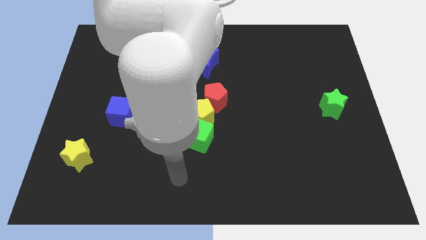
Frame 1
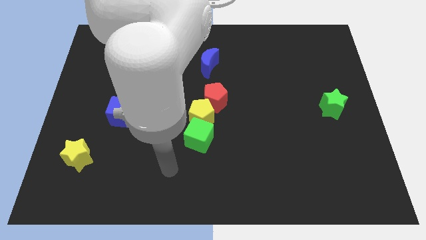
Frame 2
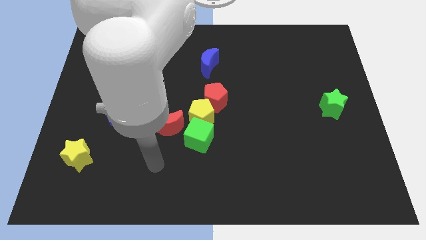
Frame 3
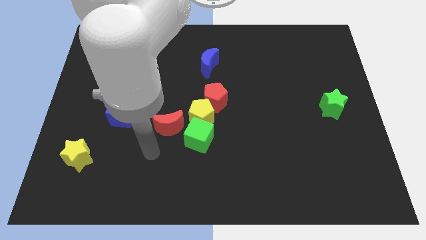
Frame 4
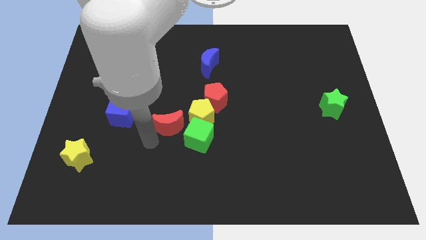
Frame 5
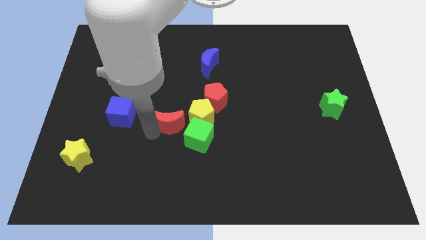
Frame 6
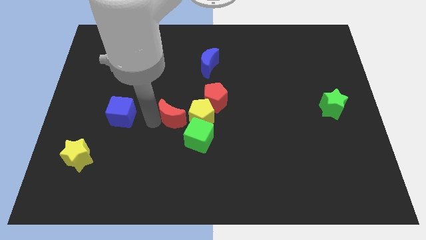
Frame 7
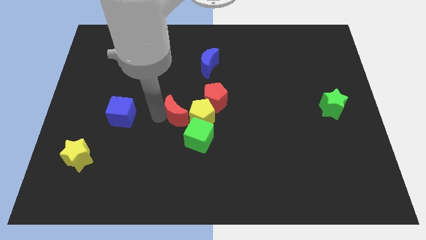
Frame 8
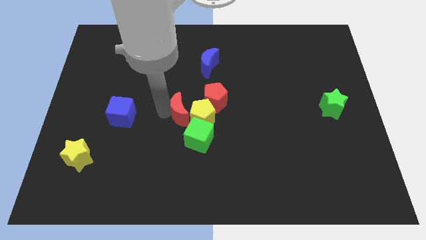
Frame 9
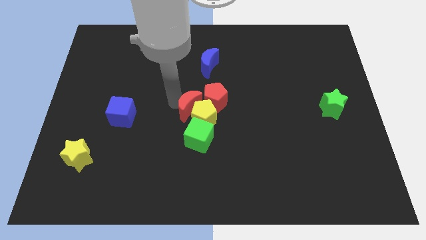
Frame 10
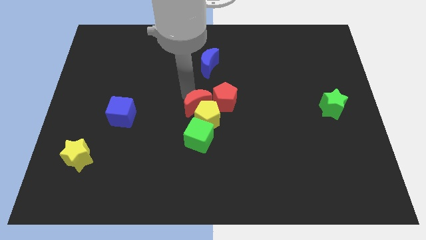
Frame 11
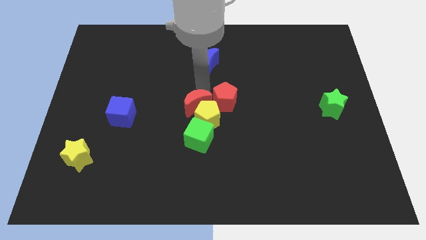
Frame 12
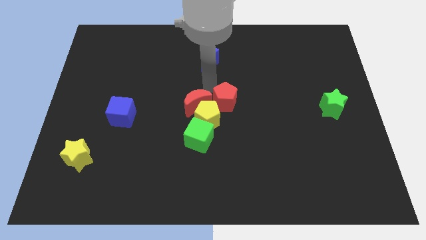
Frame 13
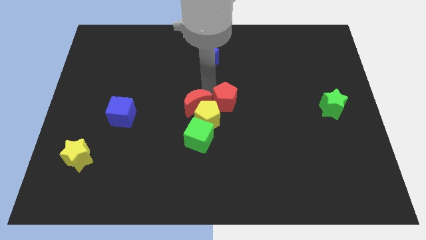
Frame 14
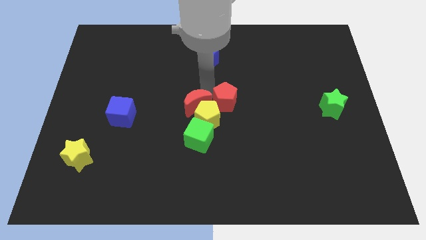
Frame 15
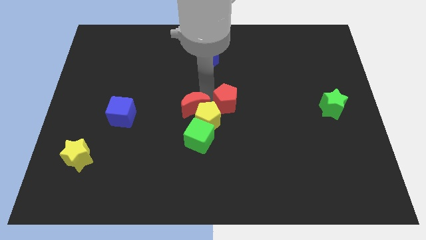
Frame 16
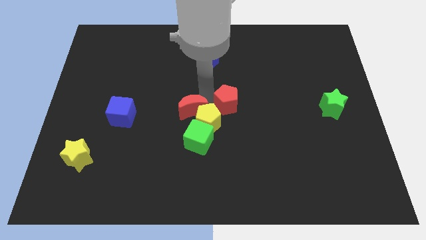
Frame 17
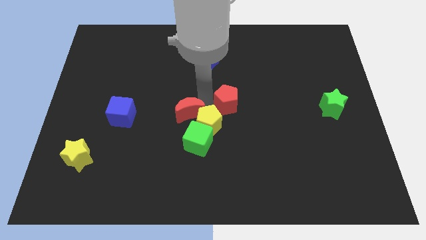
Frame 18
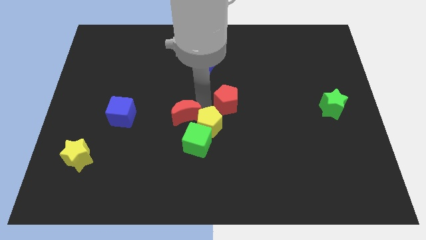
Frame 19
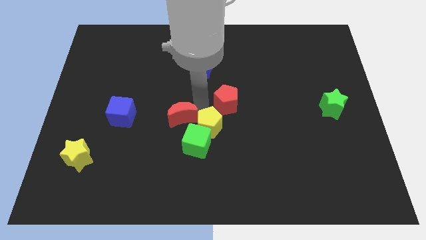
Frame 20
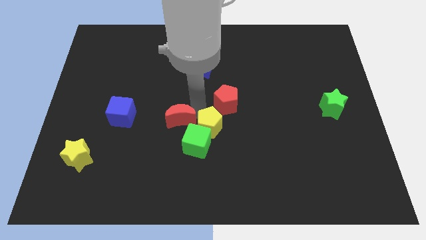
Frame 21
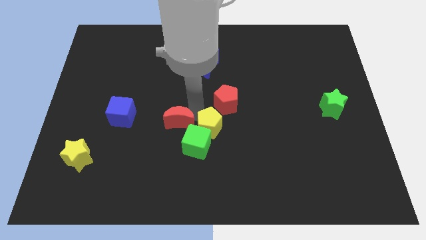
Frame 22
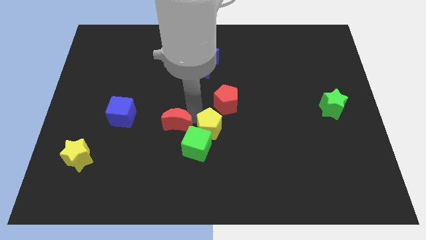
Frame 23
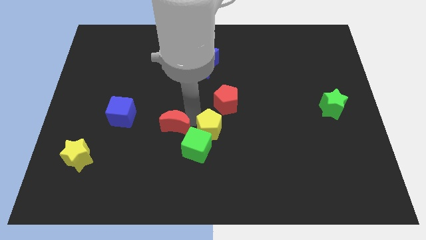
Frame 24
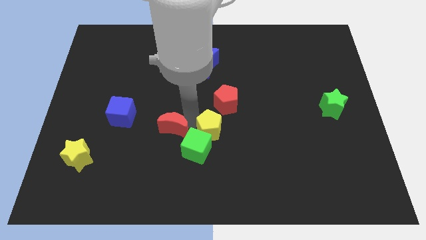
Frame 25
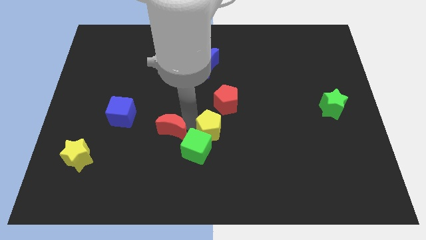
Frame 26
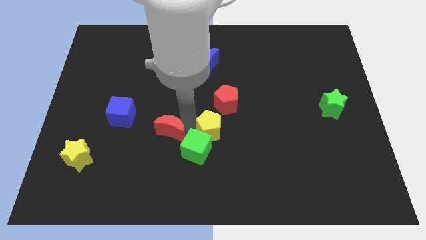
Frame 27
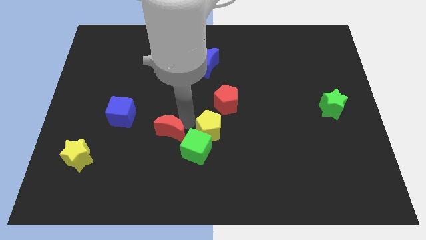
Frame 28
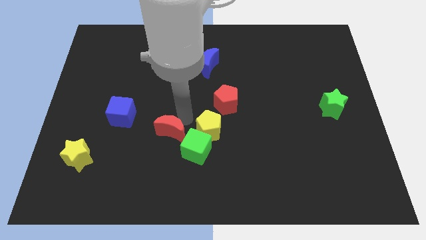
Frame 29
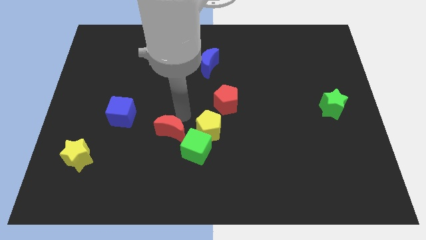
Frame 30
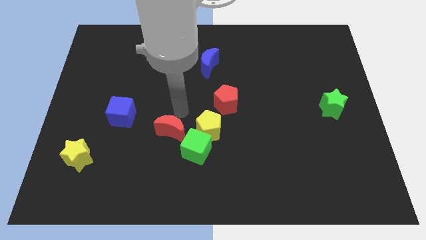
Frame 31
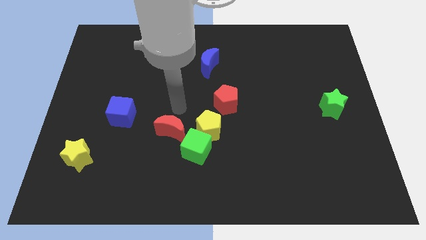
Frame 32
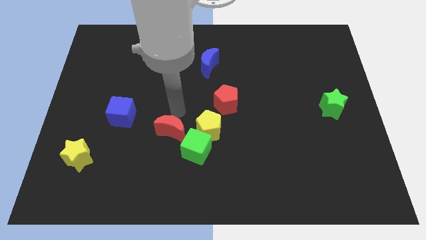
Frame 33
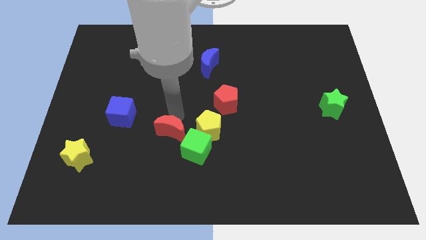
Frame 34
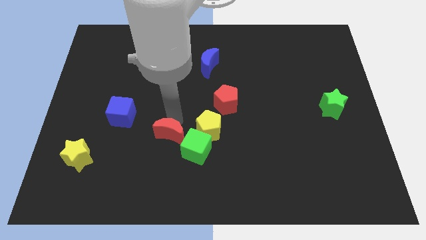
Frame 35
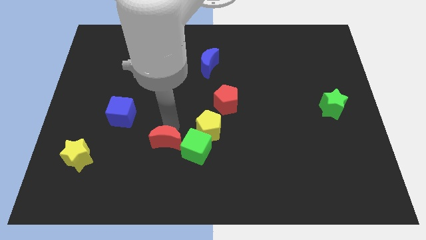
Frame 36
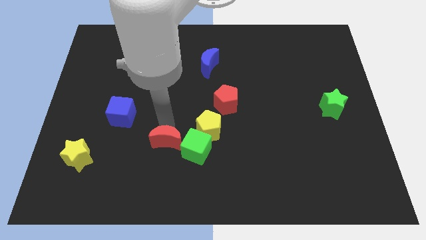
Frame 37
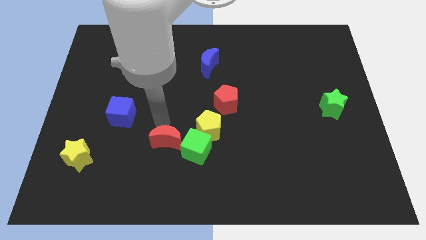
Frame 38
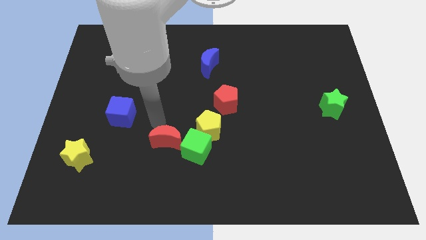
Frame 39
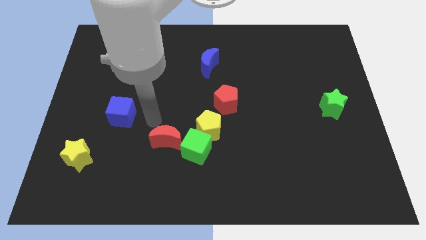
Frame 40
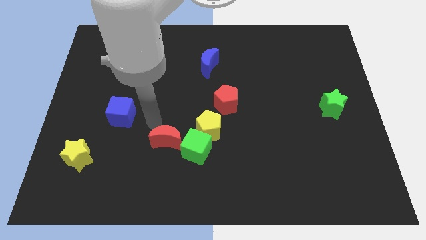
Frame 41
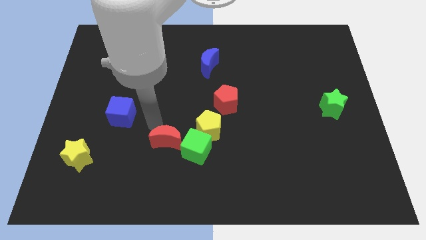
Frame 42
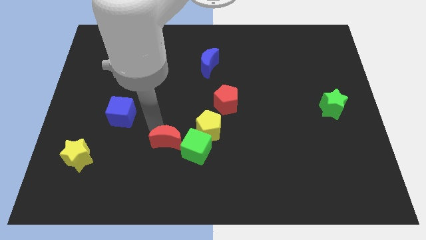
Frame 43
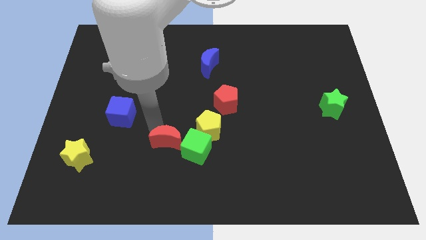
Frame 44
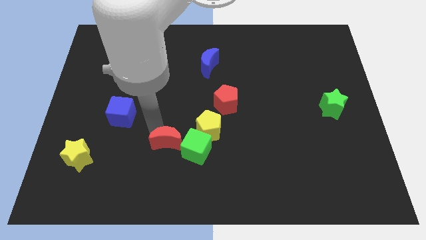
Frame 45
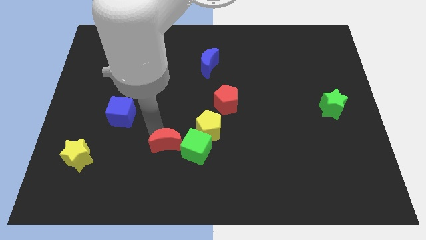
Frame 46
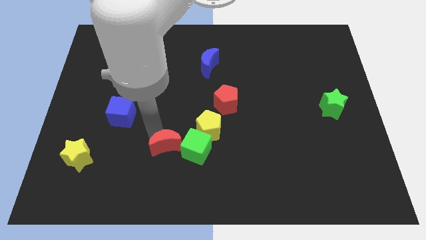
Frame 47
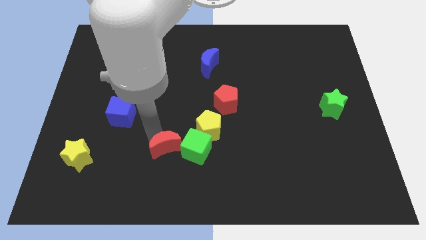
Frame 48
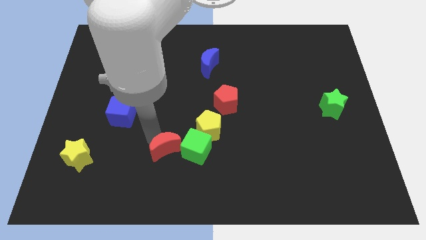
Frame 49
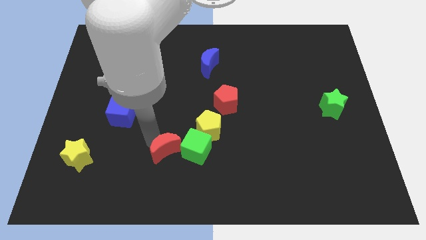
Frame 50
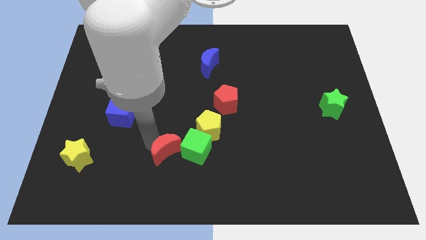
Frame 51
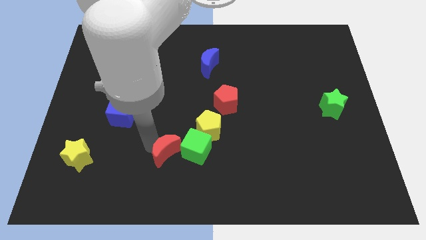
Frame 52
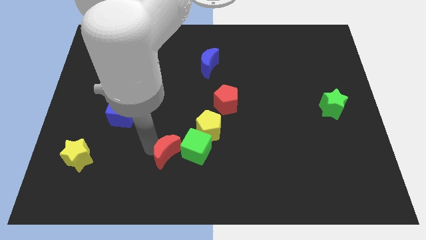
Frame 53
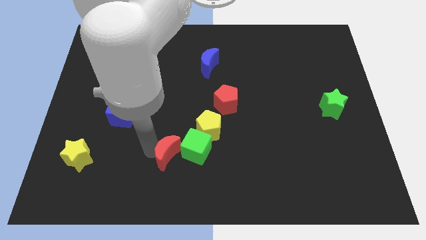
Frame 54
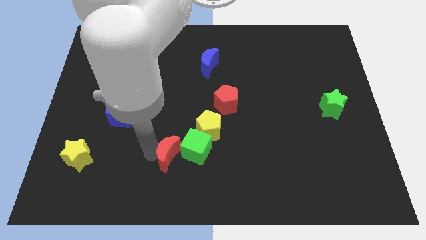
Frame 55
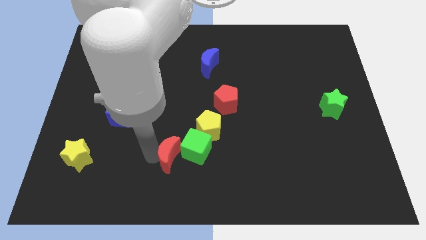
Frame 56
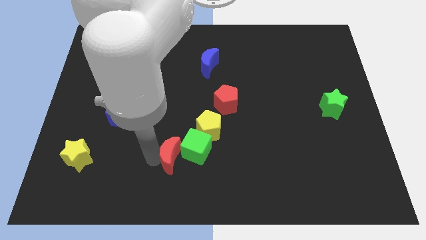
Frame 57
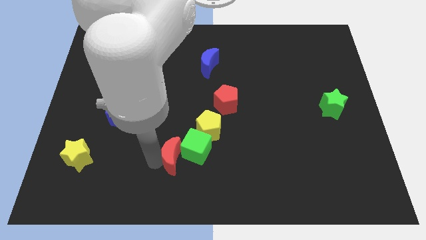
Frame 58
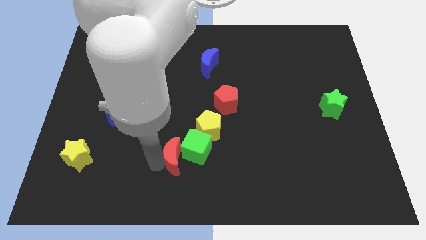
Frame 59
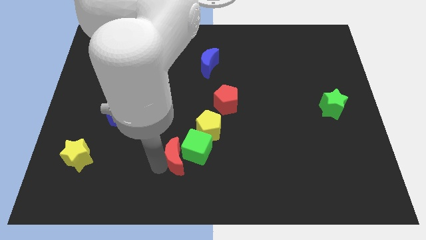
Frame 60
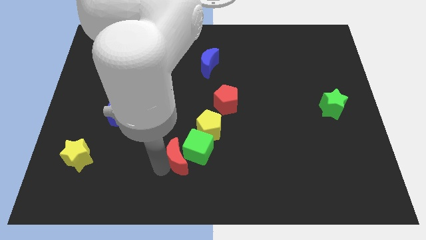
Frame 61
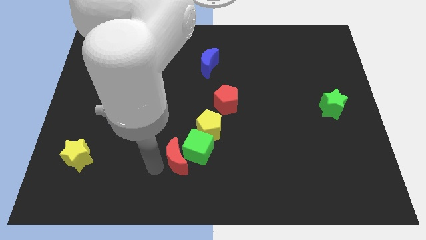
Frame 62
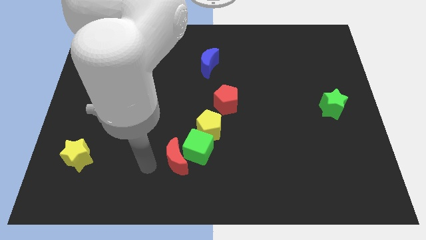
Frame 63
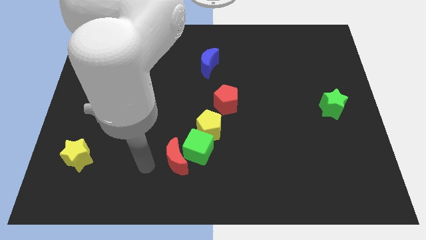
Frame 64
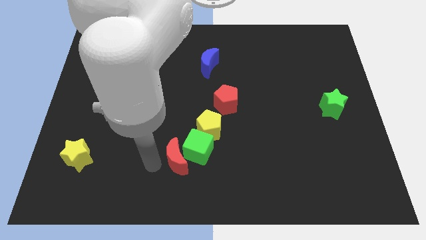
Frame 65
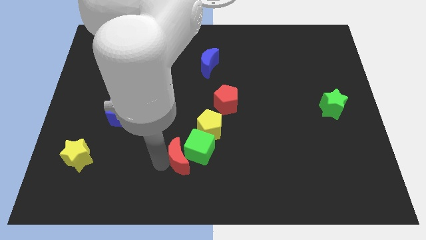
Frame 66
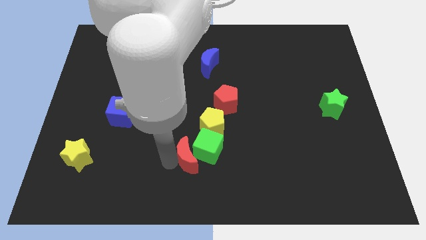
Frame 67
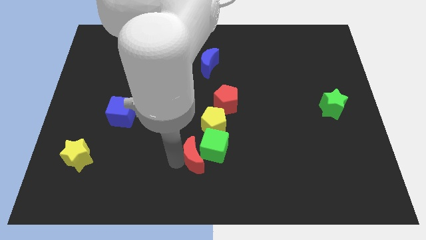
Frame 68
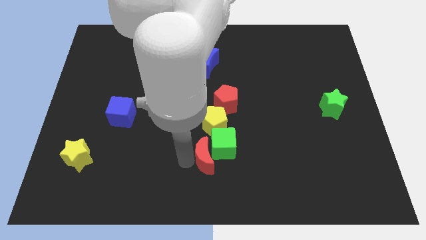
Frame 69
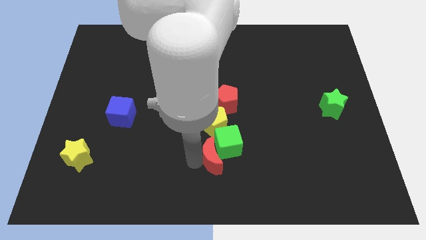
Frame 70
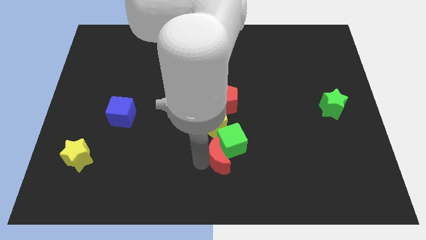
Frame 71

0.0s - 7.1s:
push the red moon right a little

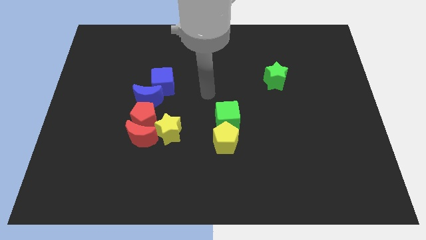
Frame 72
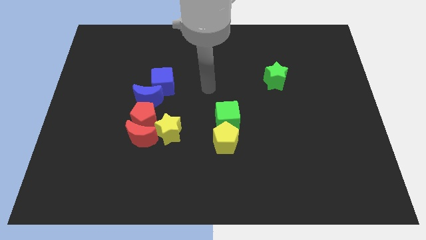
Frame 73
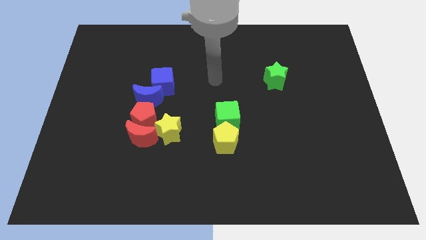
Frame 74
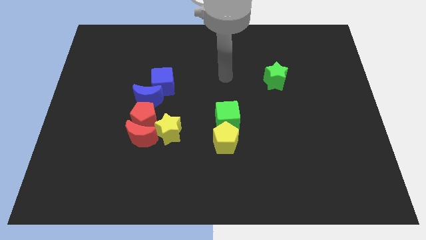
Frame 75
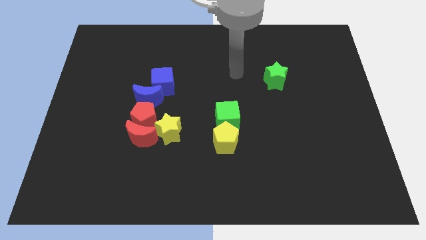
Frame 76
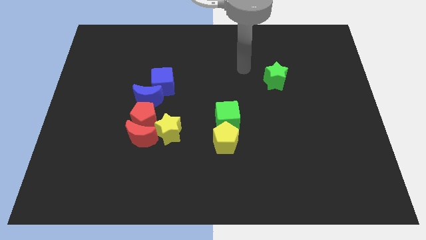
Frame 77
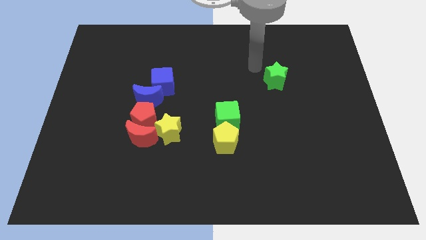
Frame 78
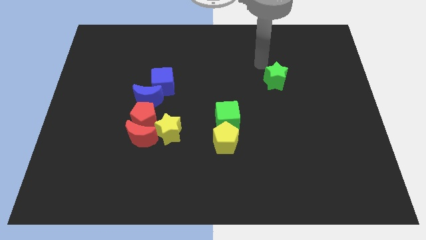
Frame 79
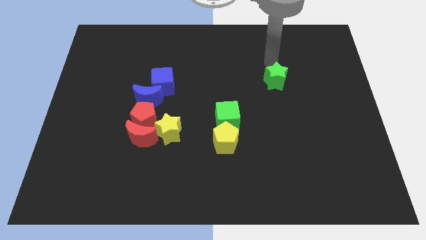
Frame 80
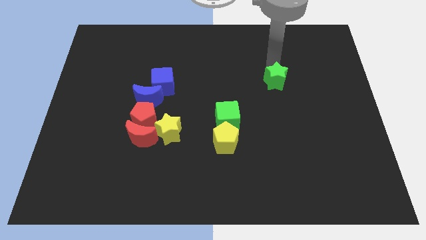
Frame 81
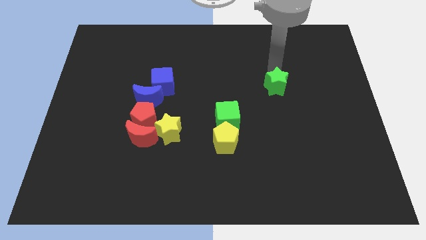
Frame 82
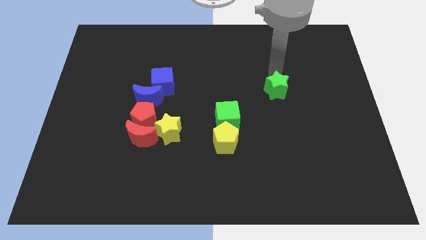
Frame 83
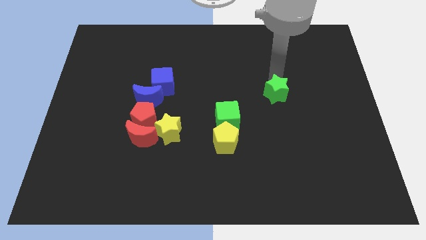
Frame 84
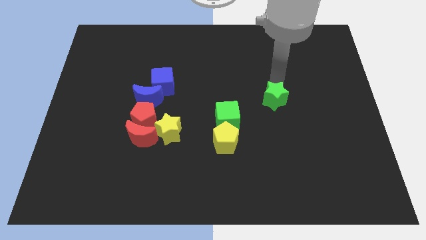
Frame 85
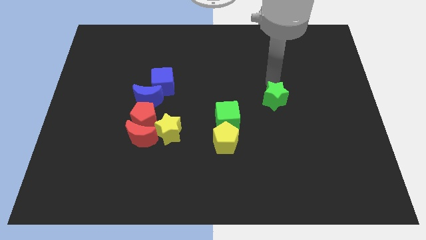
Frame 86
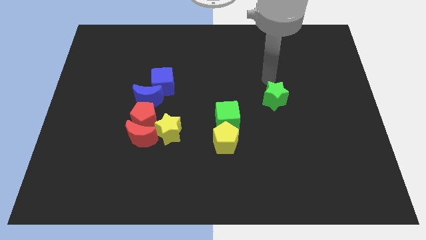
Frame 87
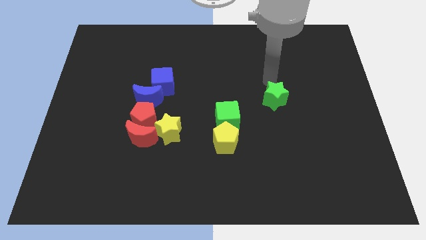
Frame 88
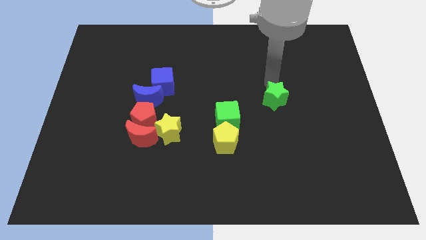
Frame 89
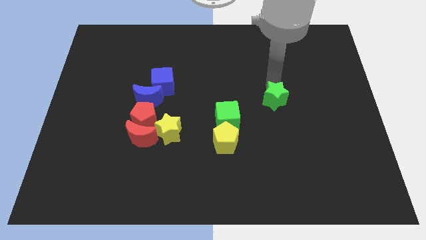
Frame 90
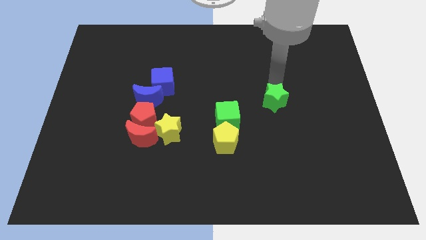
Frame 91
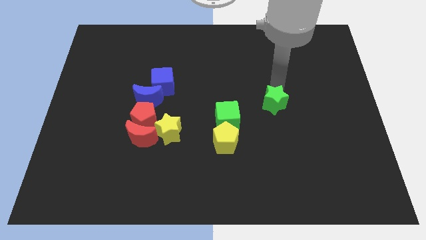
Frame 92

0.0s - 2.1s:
slightly slide the green star down
